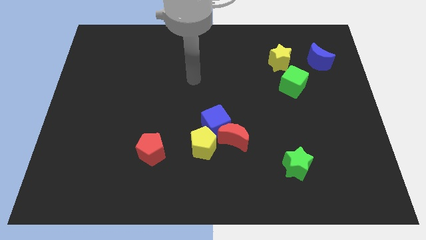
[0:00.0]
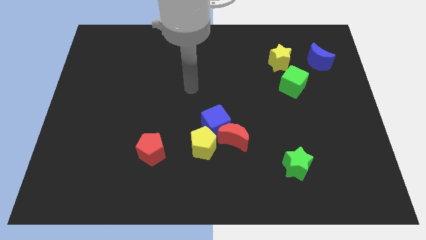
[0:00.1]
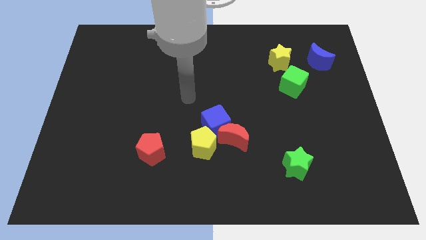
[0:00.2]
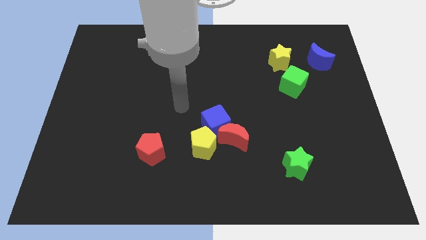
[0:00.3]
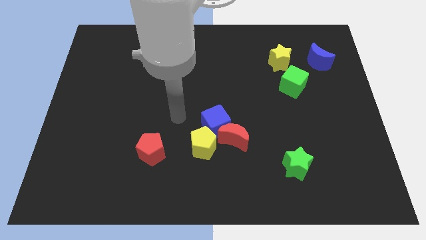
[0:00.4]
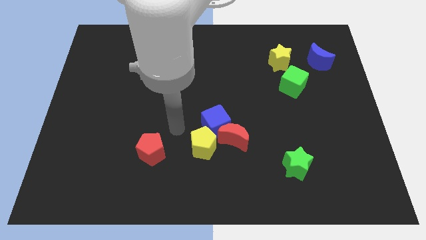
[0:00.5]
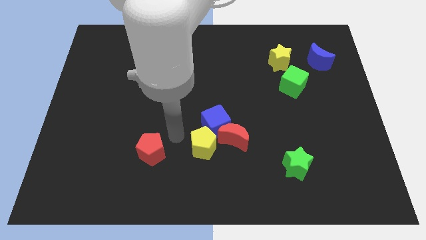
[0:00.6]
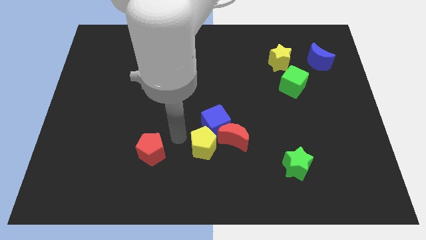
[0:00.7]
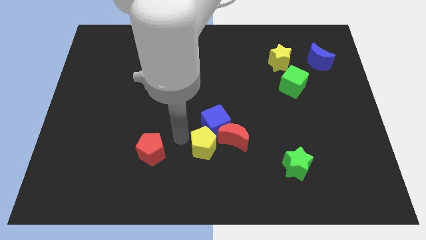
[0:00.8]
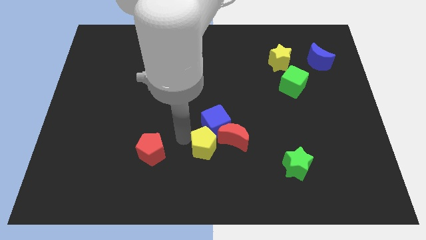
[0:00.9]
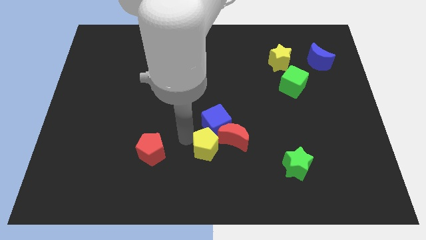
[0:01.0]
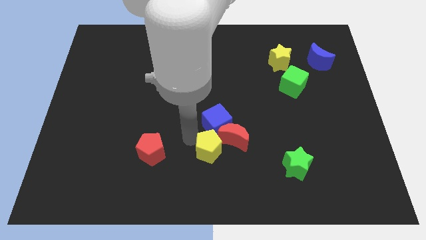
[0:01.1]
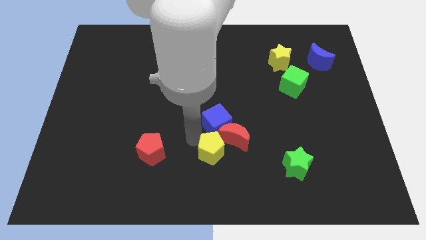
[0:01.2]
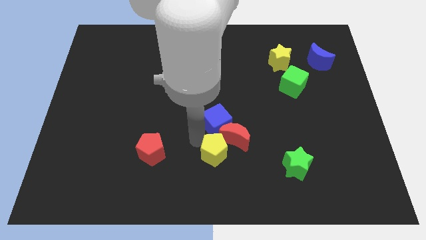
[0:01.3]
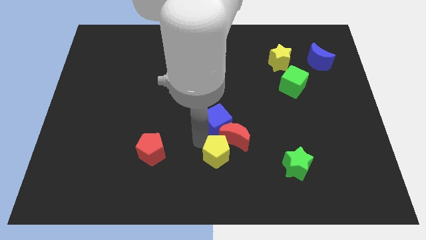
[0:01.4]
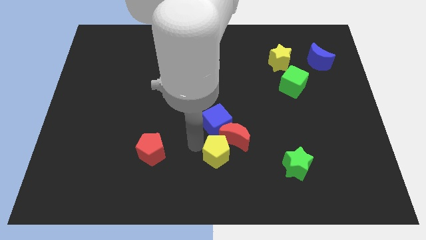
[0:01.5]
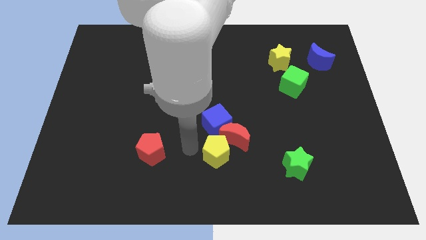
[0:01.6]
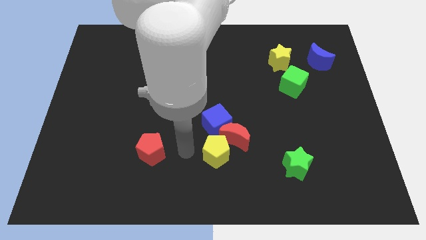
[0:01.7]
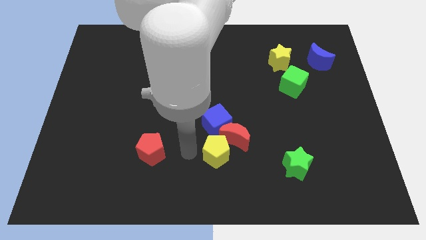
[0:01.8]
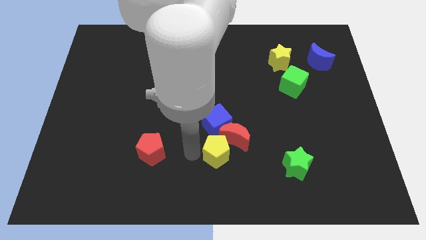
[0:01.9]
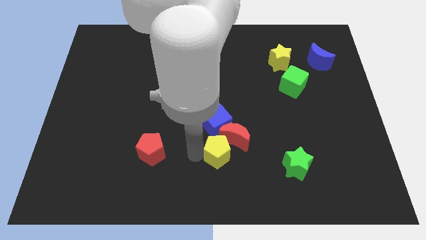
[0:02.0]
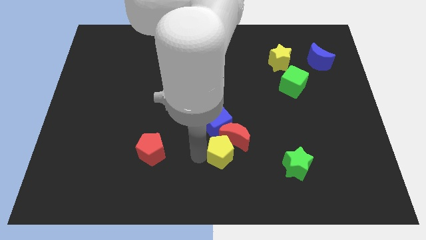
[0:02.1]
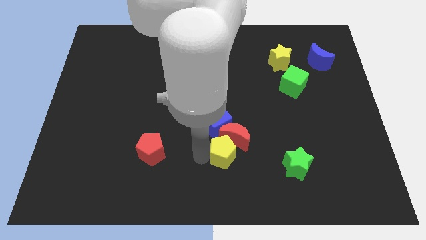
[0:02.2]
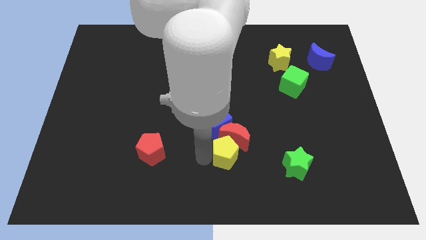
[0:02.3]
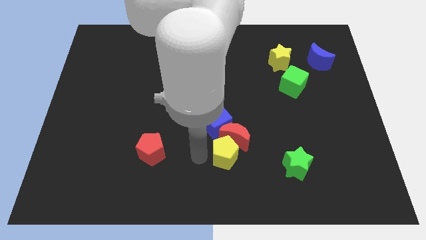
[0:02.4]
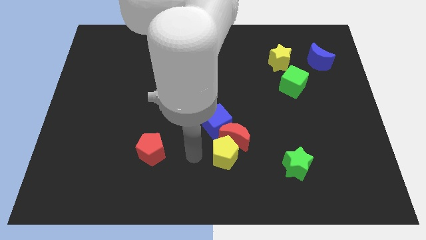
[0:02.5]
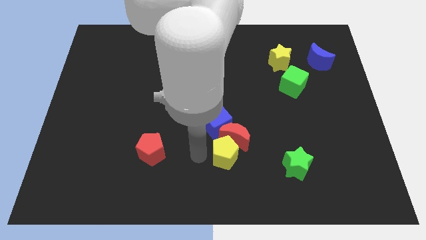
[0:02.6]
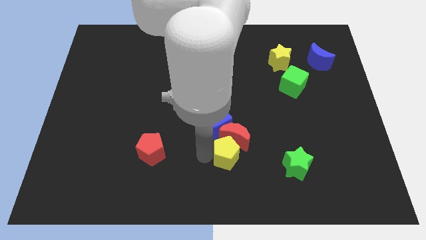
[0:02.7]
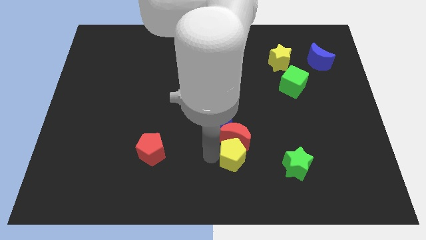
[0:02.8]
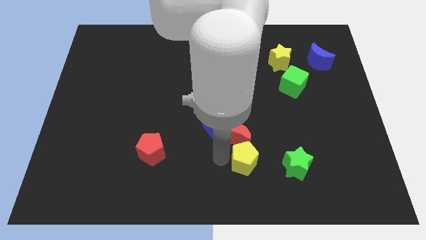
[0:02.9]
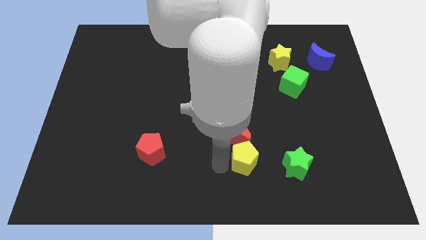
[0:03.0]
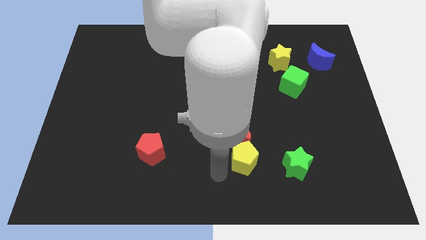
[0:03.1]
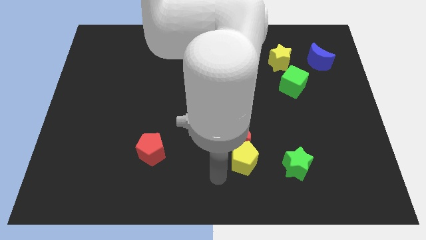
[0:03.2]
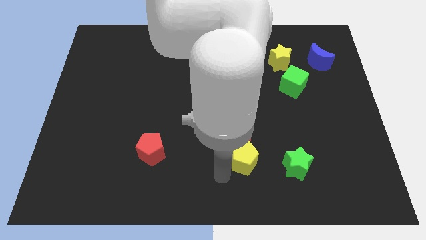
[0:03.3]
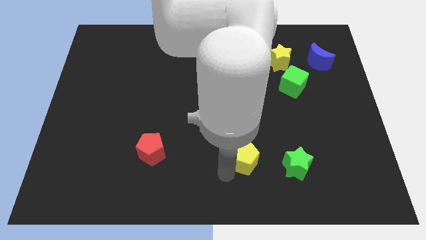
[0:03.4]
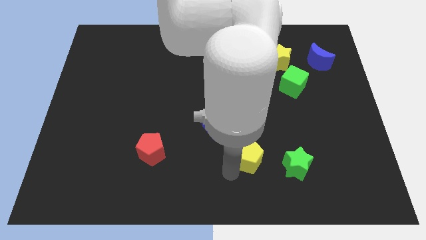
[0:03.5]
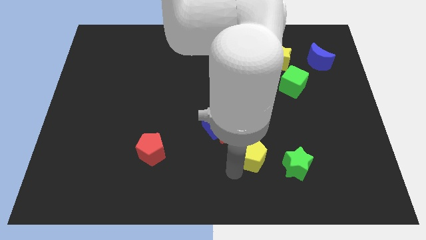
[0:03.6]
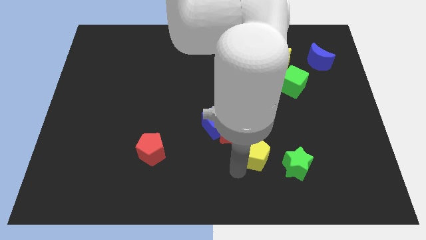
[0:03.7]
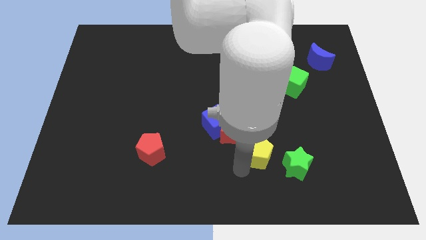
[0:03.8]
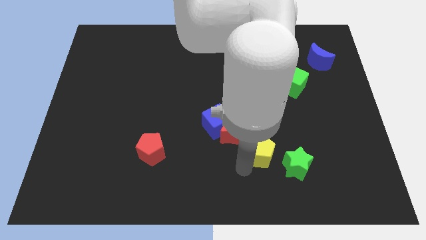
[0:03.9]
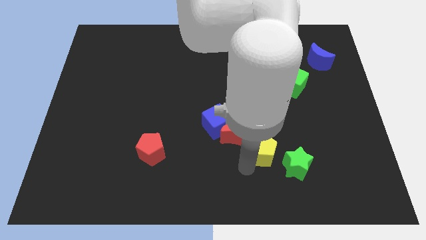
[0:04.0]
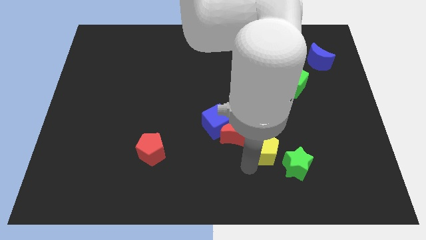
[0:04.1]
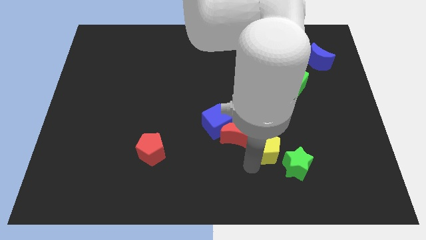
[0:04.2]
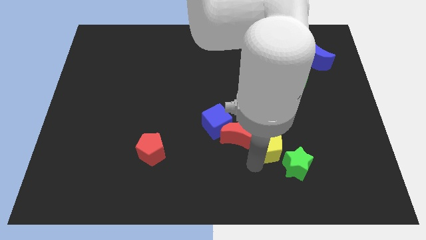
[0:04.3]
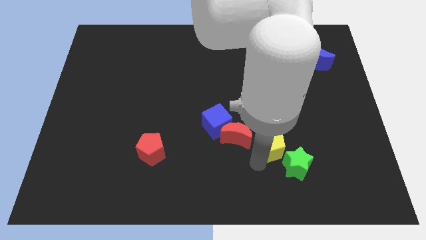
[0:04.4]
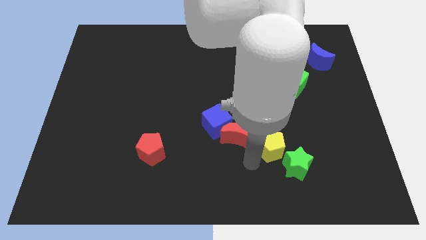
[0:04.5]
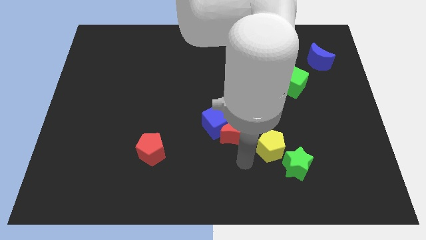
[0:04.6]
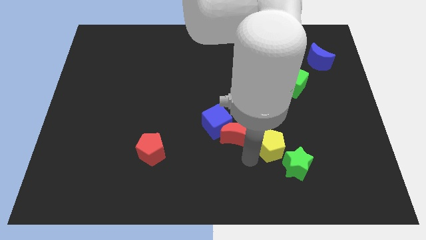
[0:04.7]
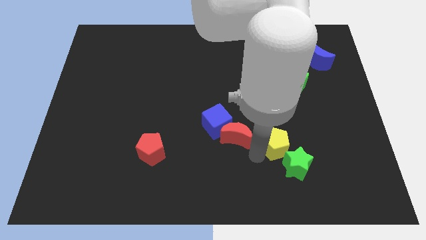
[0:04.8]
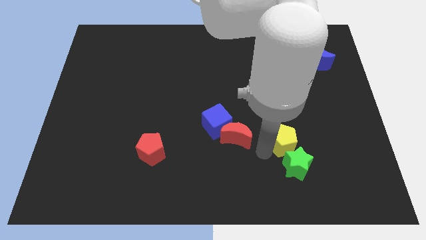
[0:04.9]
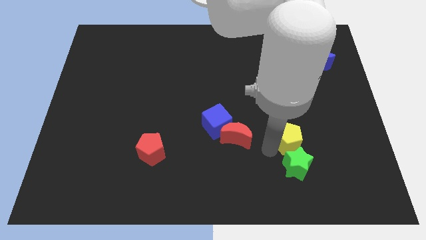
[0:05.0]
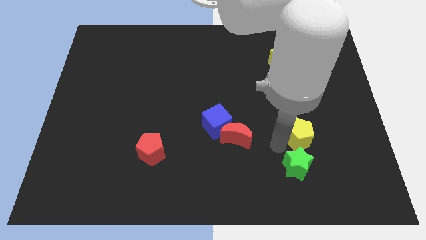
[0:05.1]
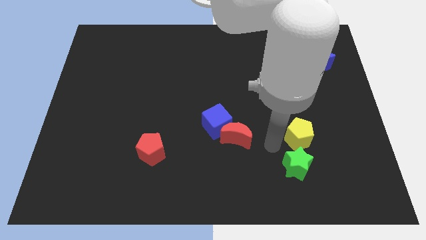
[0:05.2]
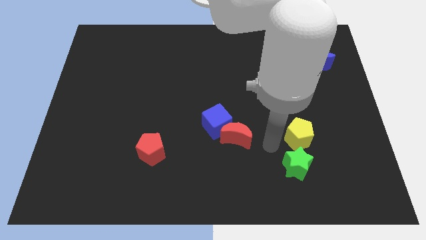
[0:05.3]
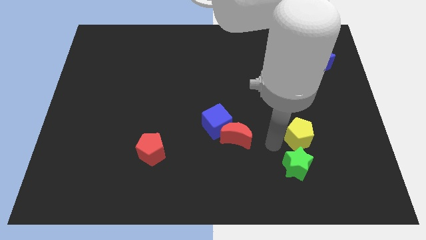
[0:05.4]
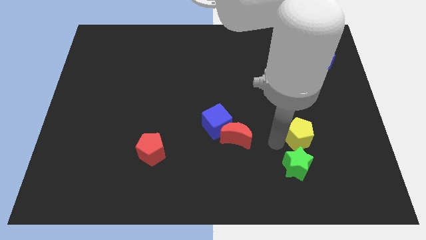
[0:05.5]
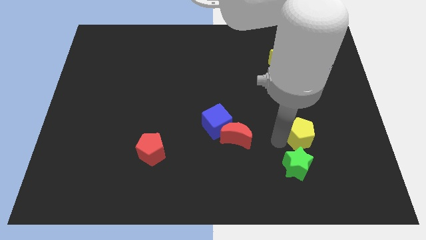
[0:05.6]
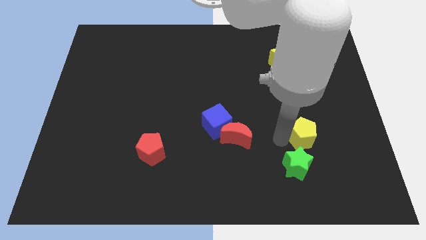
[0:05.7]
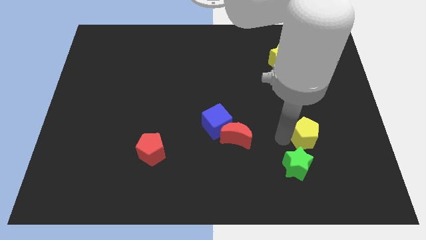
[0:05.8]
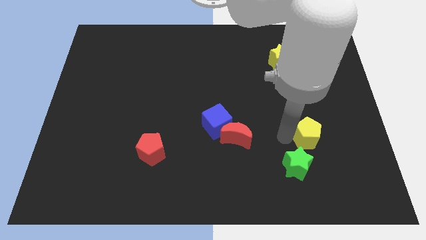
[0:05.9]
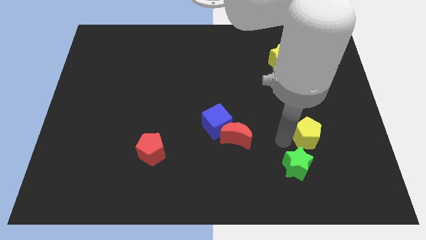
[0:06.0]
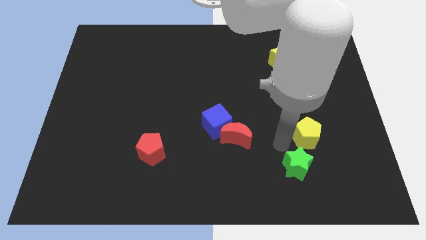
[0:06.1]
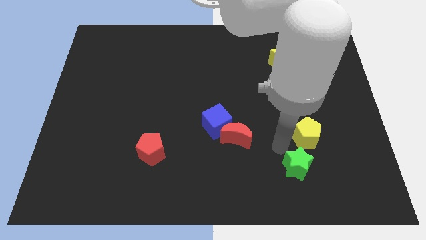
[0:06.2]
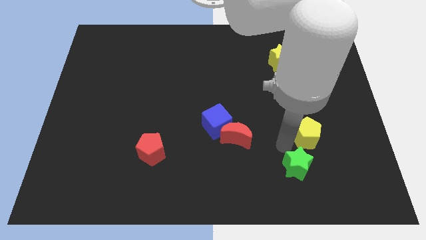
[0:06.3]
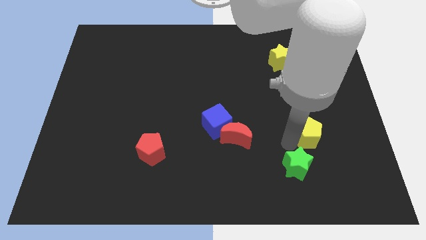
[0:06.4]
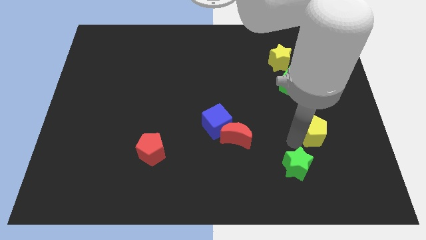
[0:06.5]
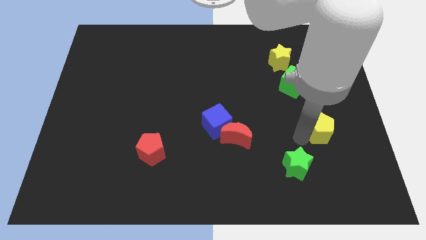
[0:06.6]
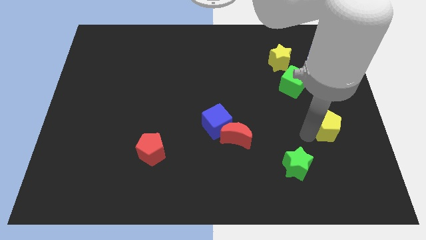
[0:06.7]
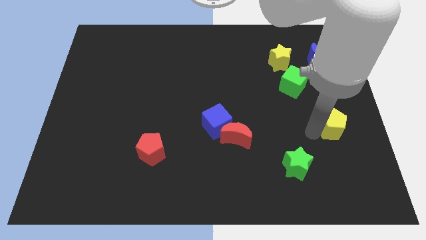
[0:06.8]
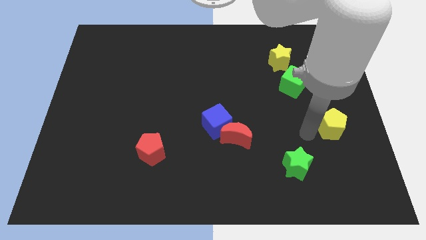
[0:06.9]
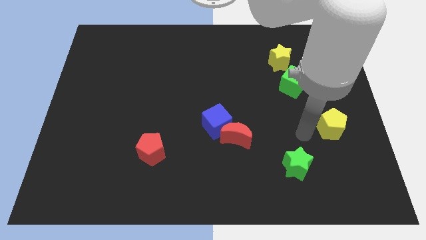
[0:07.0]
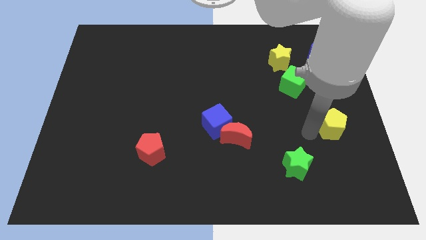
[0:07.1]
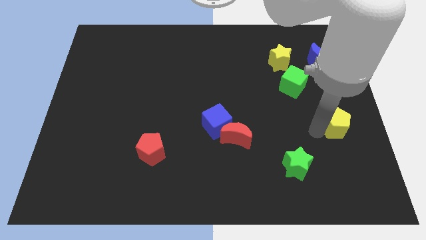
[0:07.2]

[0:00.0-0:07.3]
slide the yellow pentagon to the right side
